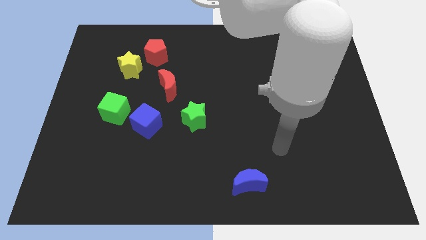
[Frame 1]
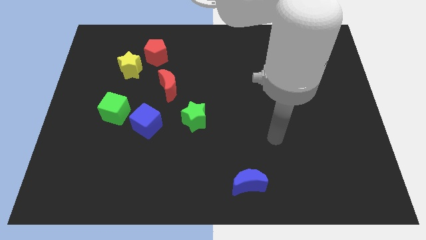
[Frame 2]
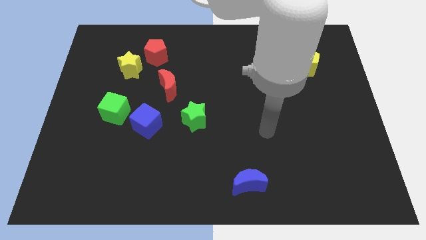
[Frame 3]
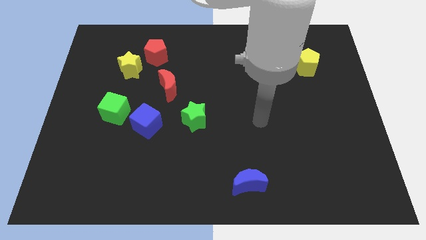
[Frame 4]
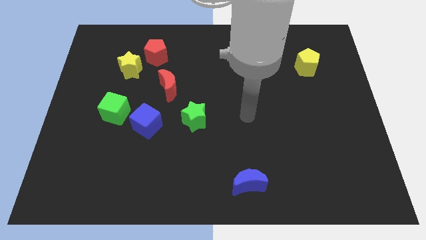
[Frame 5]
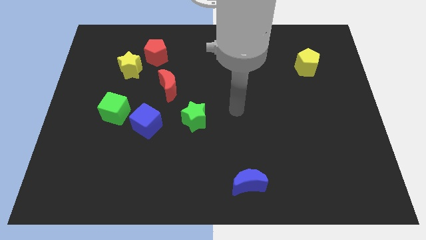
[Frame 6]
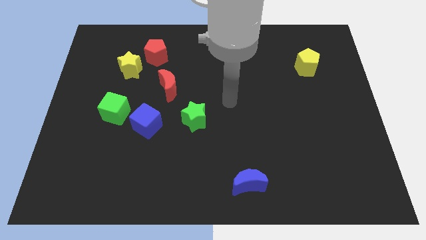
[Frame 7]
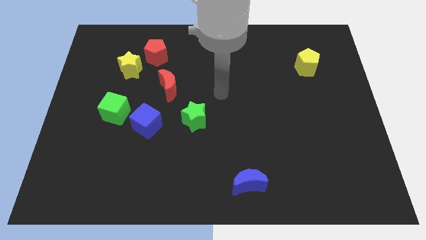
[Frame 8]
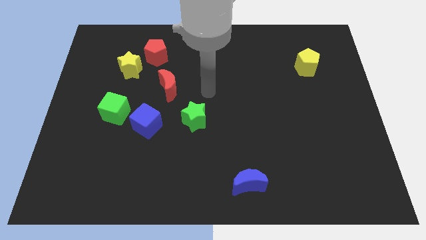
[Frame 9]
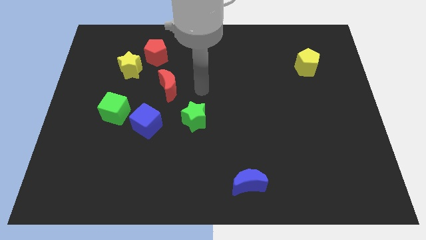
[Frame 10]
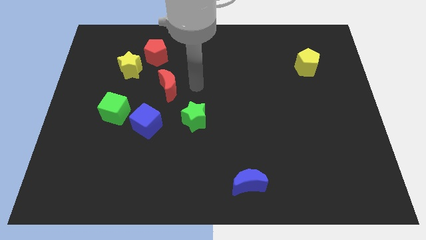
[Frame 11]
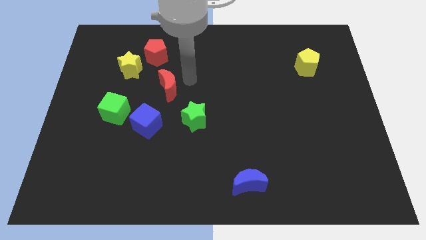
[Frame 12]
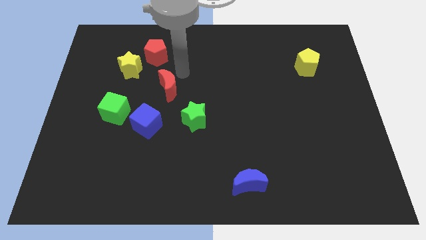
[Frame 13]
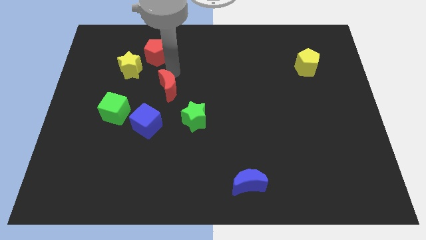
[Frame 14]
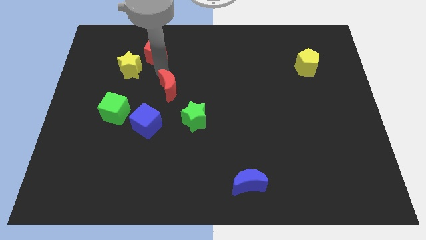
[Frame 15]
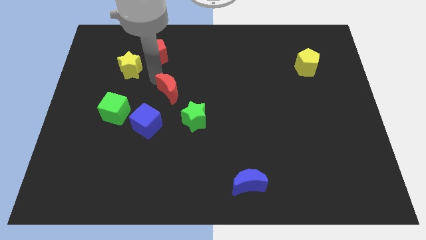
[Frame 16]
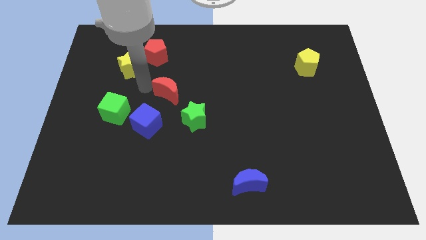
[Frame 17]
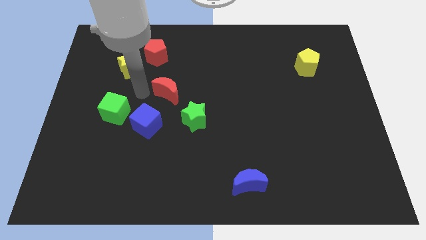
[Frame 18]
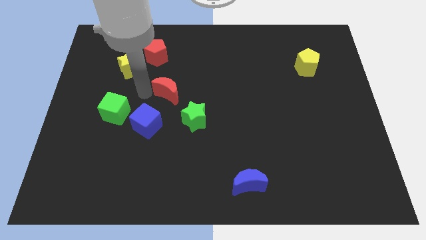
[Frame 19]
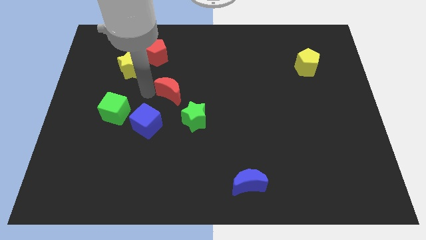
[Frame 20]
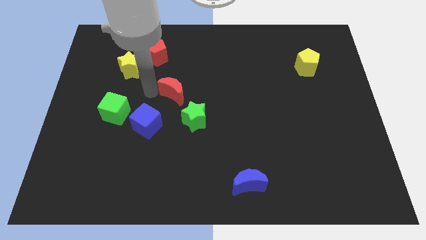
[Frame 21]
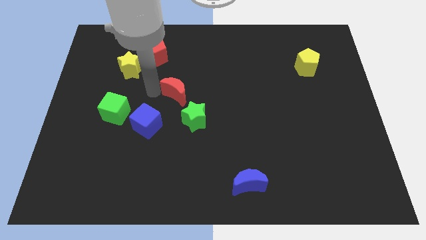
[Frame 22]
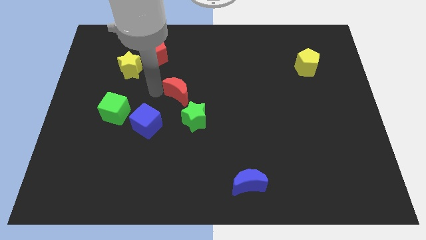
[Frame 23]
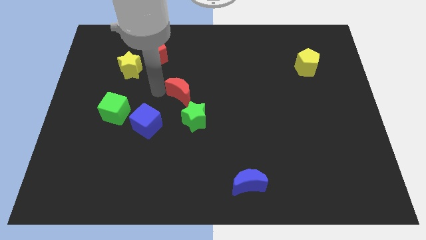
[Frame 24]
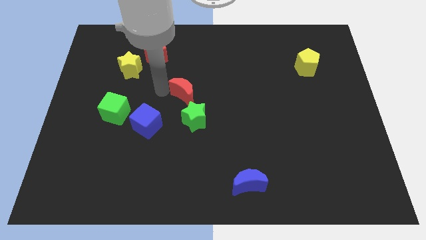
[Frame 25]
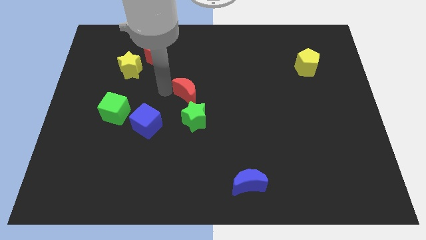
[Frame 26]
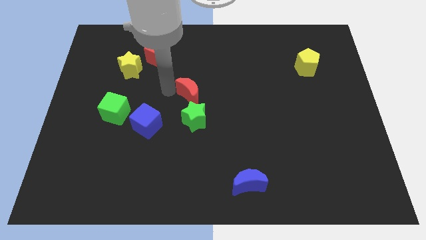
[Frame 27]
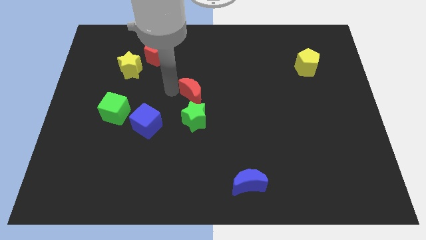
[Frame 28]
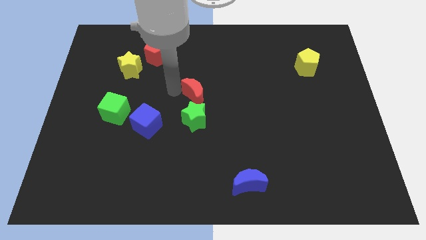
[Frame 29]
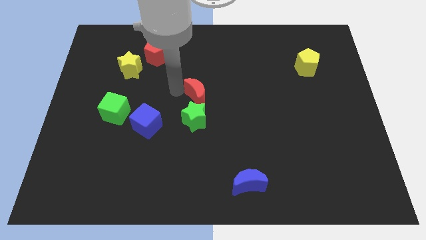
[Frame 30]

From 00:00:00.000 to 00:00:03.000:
move the red moon right somewhat

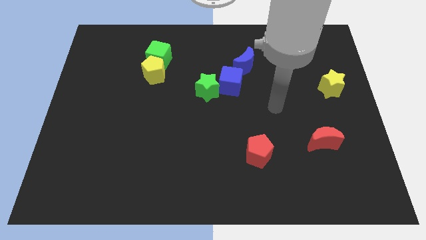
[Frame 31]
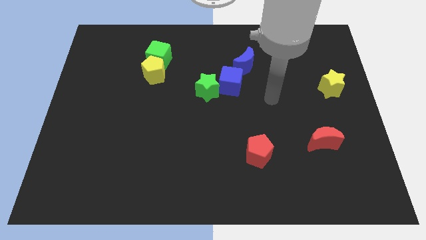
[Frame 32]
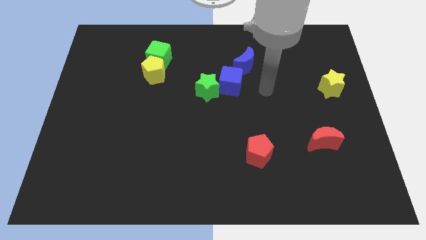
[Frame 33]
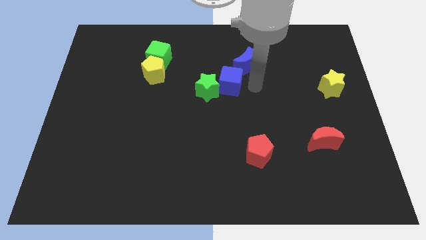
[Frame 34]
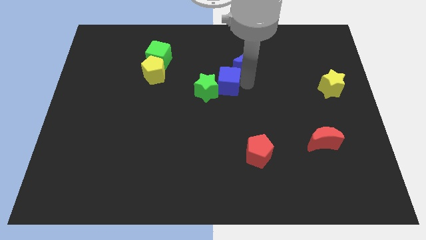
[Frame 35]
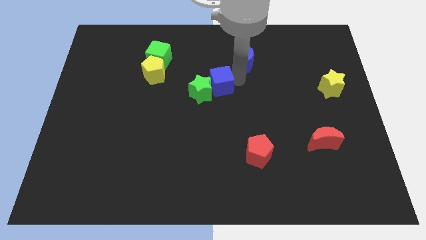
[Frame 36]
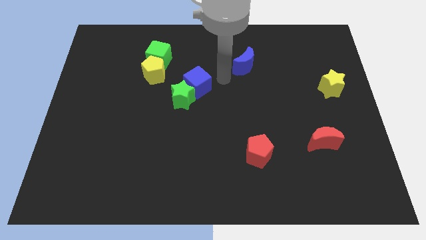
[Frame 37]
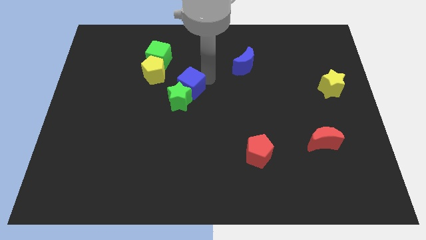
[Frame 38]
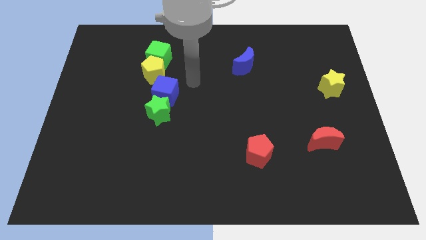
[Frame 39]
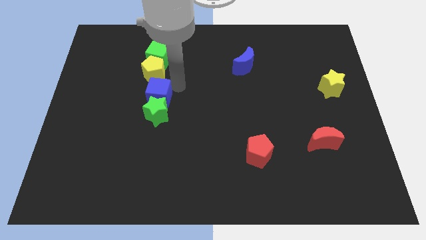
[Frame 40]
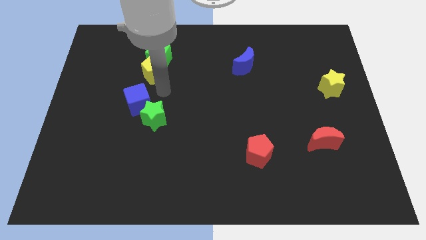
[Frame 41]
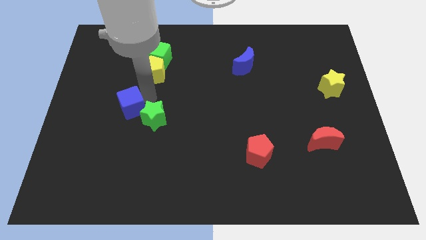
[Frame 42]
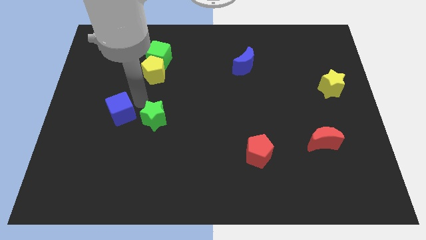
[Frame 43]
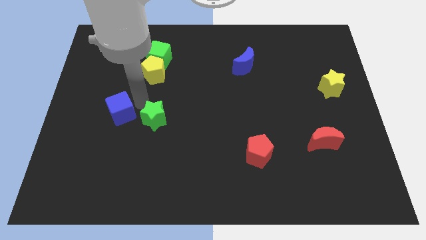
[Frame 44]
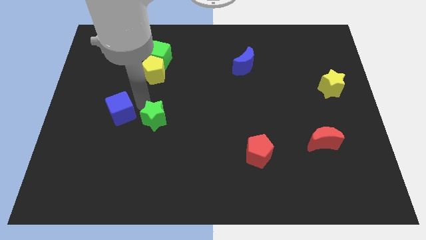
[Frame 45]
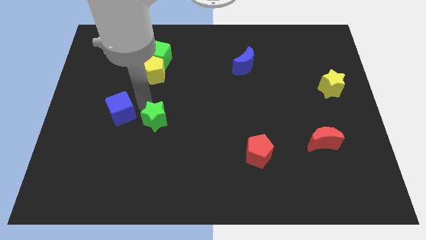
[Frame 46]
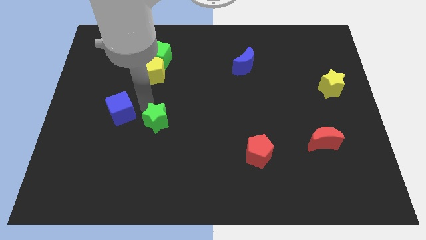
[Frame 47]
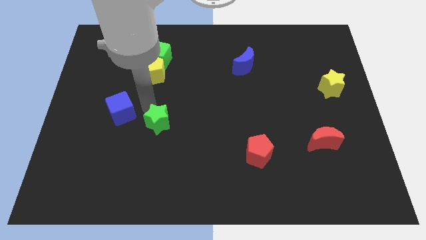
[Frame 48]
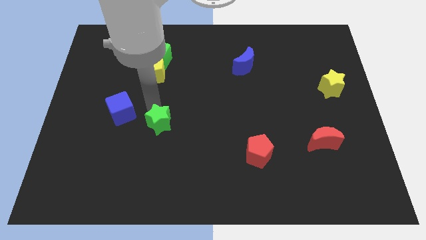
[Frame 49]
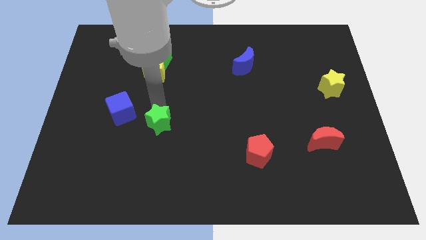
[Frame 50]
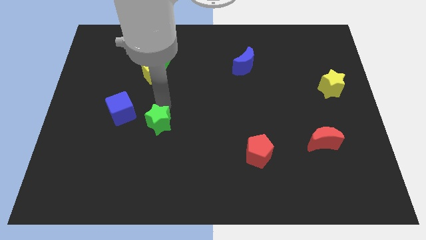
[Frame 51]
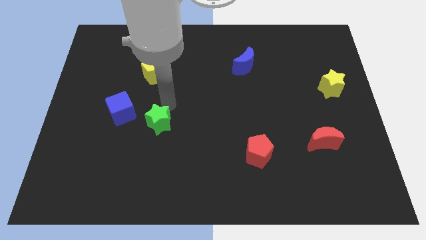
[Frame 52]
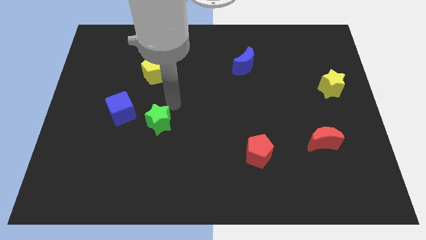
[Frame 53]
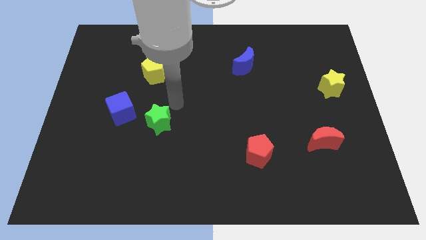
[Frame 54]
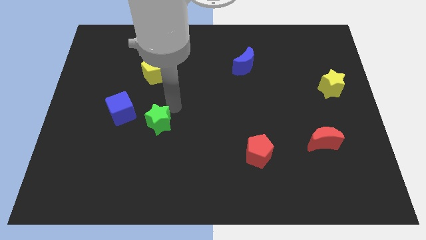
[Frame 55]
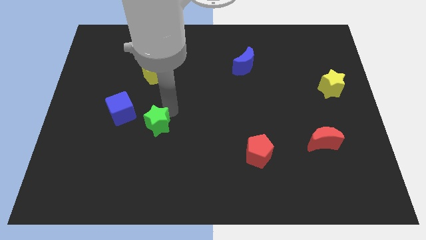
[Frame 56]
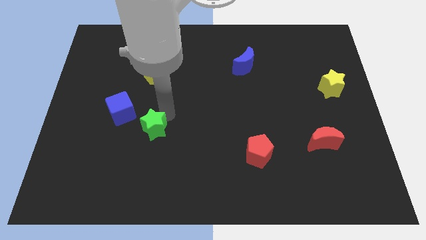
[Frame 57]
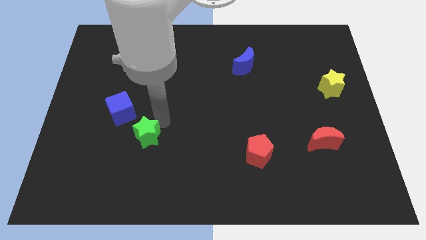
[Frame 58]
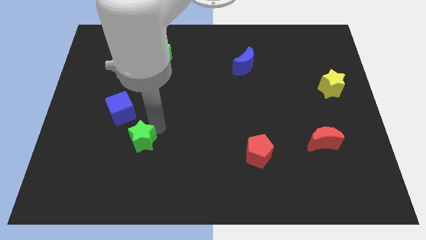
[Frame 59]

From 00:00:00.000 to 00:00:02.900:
slide the green star downwards and then left

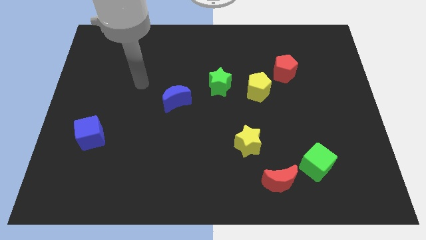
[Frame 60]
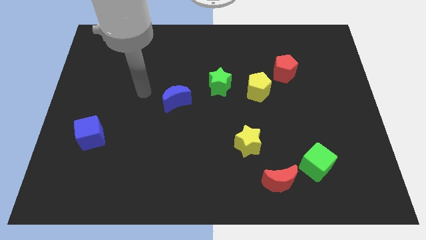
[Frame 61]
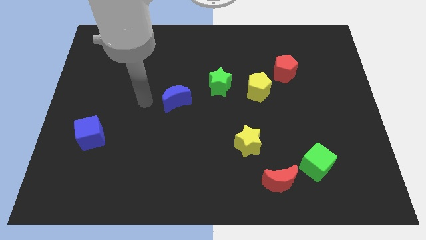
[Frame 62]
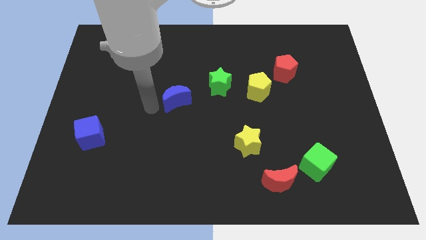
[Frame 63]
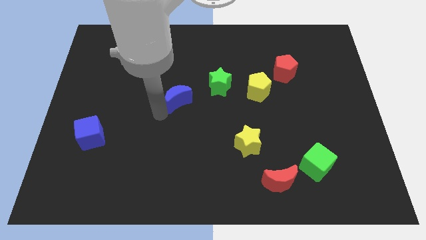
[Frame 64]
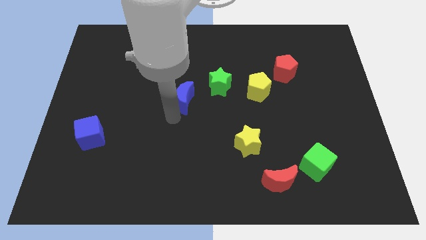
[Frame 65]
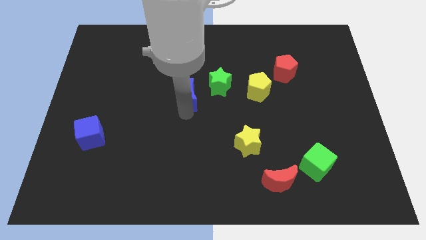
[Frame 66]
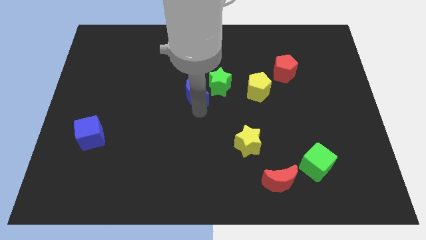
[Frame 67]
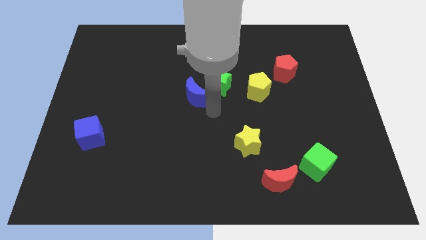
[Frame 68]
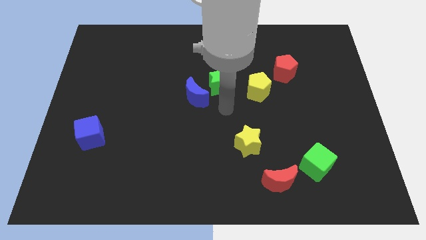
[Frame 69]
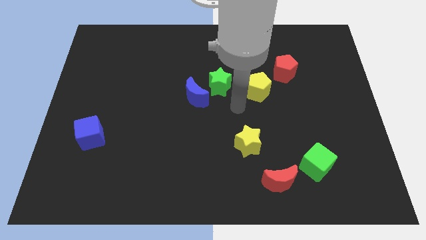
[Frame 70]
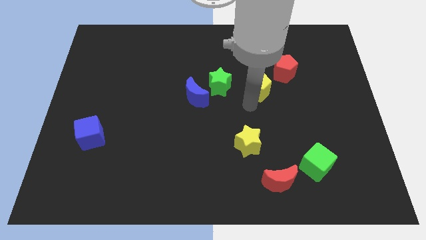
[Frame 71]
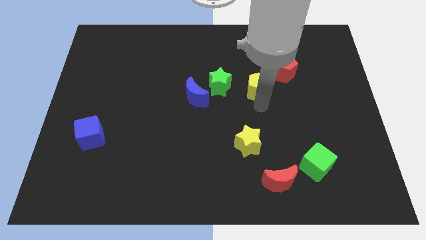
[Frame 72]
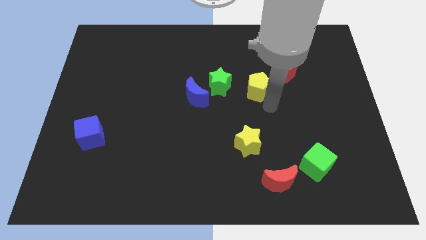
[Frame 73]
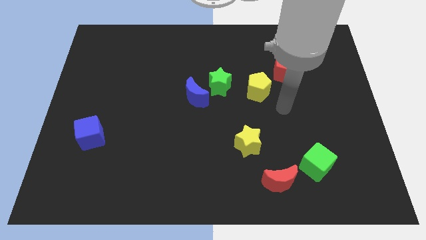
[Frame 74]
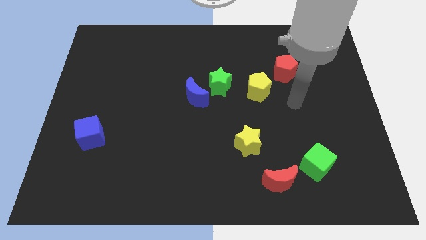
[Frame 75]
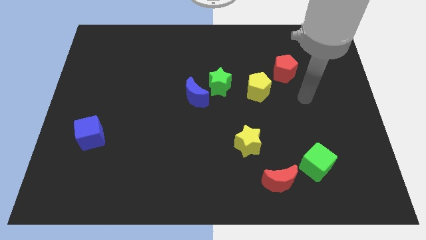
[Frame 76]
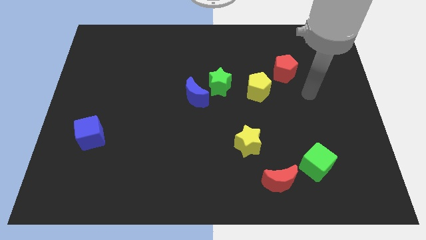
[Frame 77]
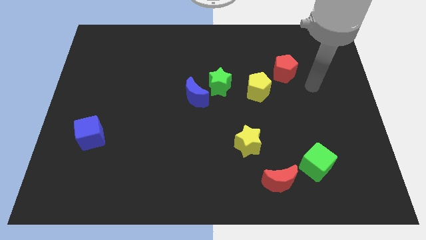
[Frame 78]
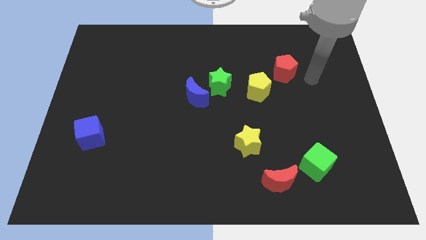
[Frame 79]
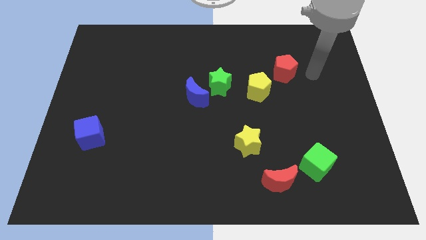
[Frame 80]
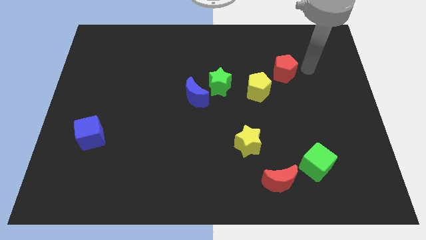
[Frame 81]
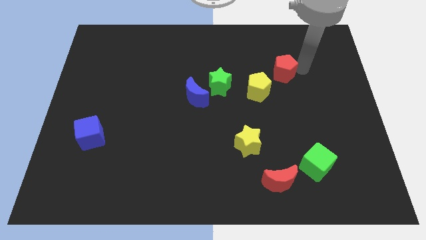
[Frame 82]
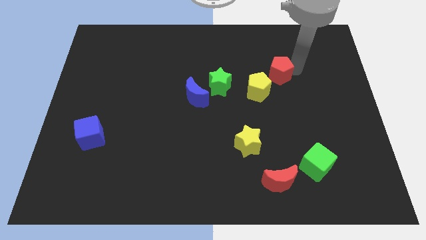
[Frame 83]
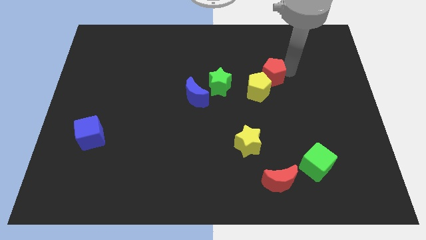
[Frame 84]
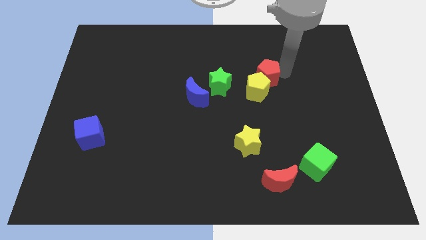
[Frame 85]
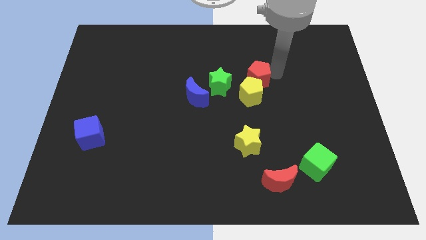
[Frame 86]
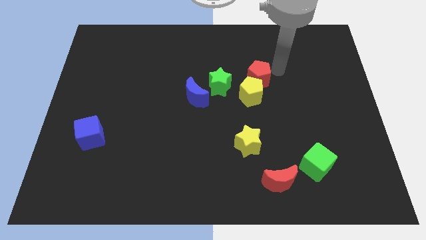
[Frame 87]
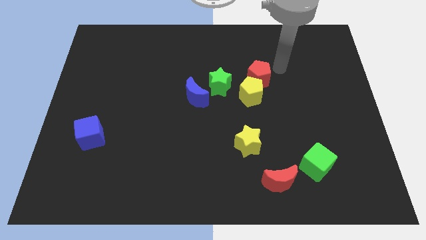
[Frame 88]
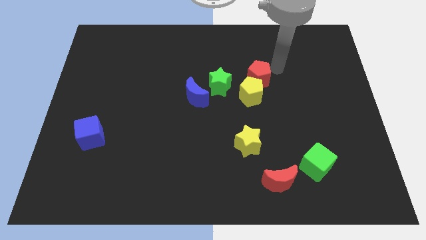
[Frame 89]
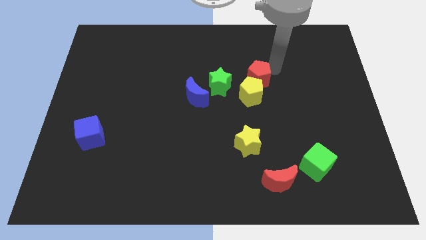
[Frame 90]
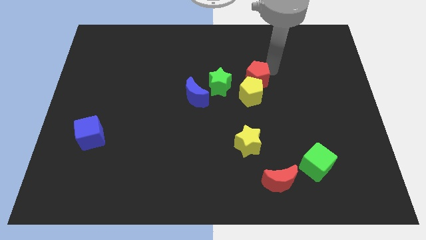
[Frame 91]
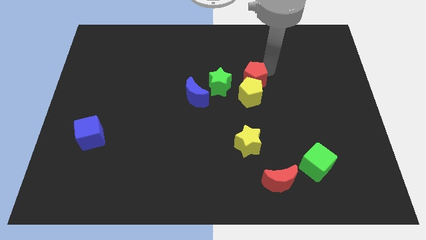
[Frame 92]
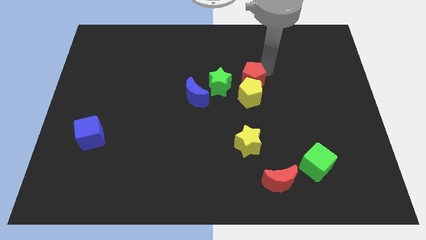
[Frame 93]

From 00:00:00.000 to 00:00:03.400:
slightly push the red pentagon downwards and left diagonally
